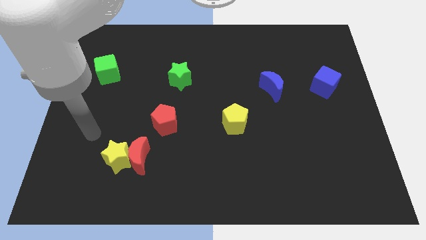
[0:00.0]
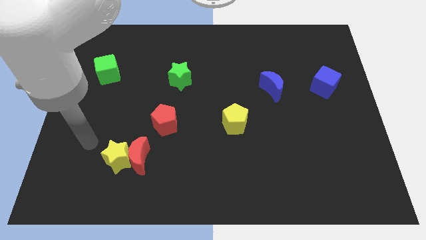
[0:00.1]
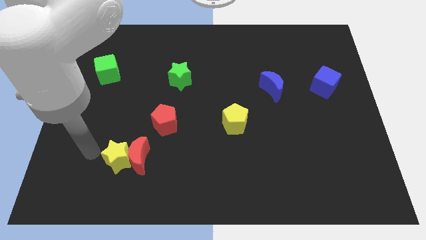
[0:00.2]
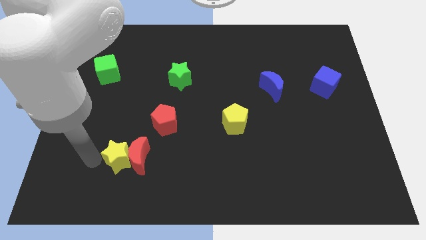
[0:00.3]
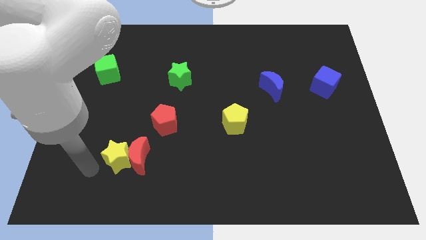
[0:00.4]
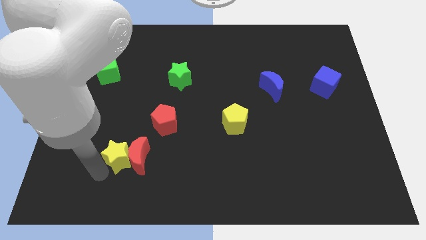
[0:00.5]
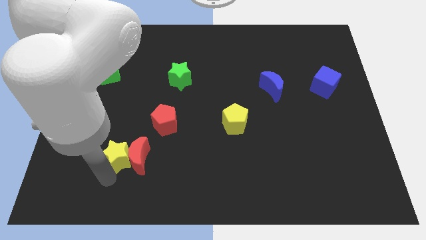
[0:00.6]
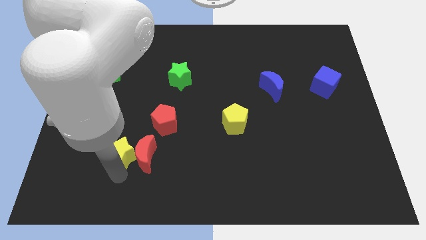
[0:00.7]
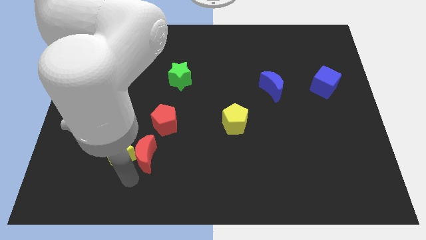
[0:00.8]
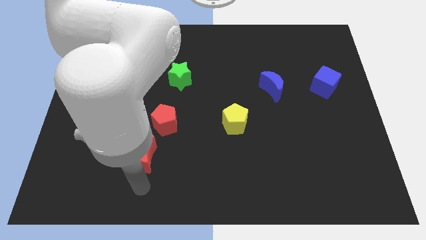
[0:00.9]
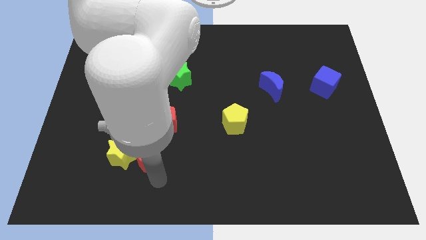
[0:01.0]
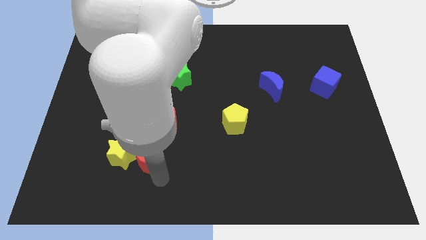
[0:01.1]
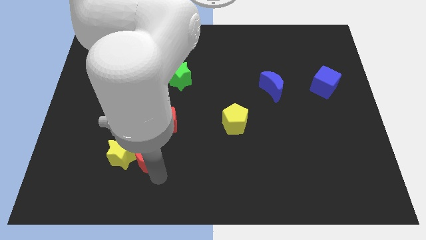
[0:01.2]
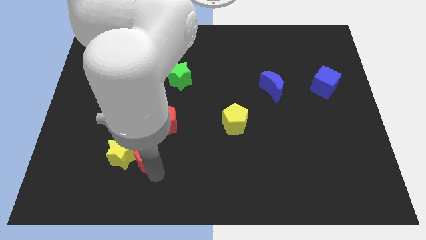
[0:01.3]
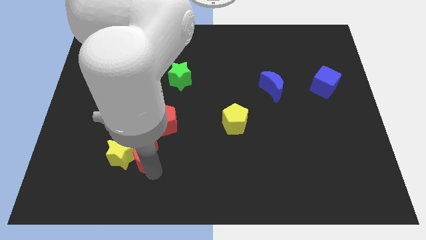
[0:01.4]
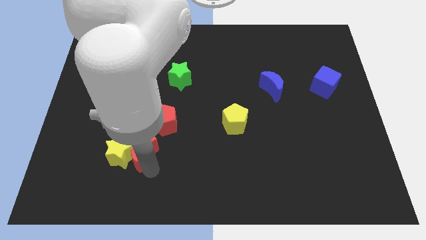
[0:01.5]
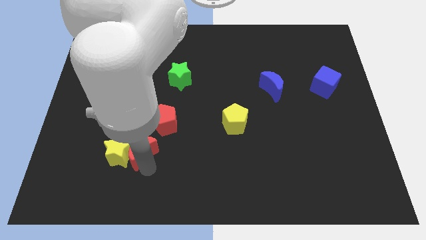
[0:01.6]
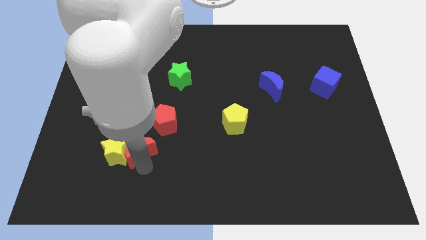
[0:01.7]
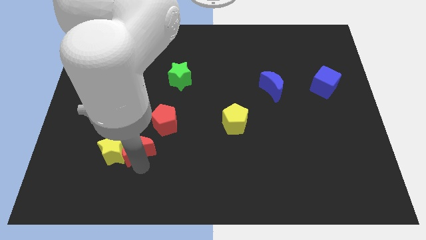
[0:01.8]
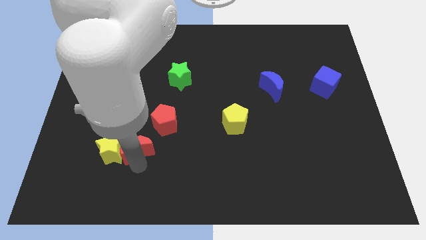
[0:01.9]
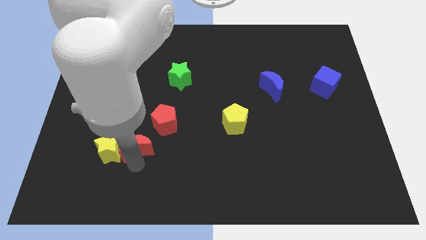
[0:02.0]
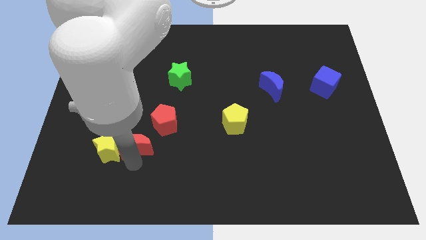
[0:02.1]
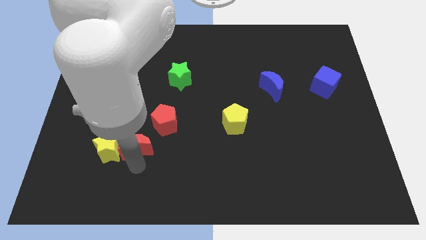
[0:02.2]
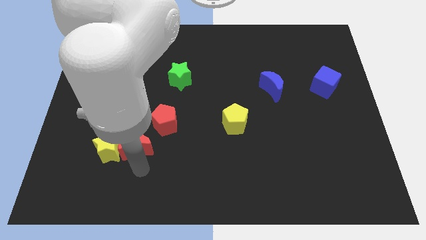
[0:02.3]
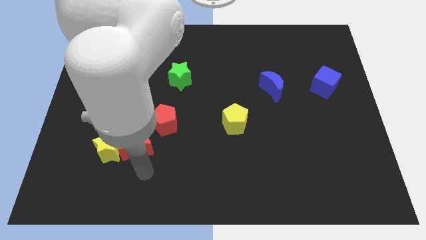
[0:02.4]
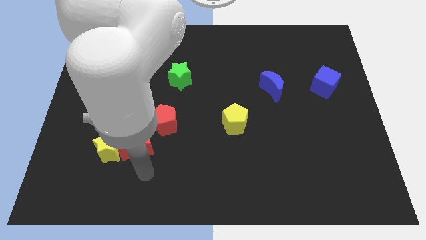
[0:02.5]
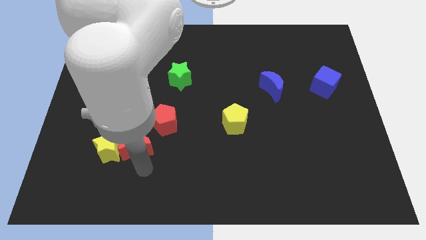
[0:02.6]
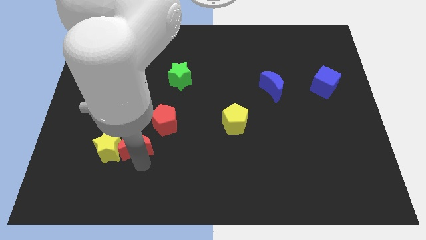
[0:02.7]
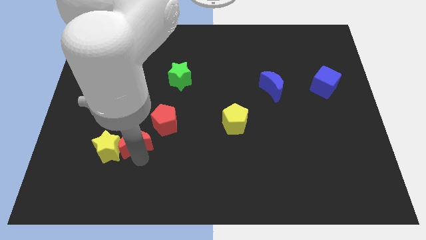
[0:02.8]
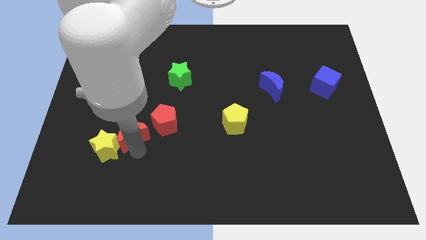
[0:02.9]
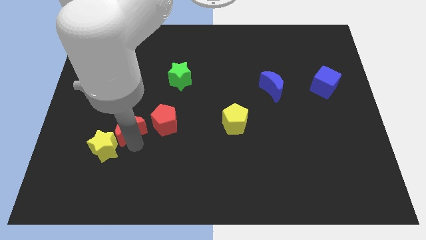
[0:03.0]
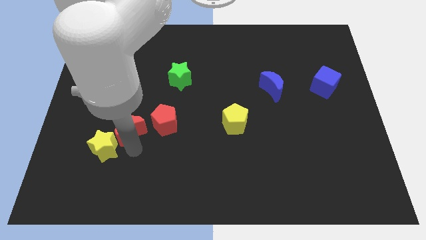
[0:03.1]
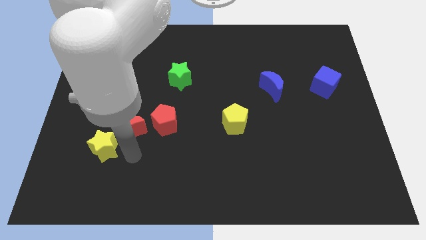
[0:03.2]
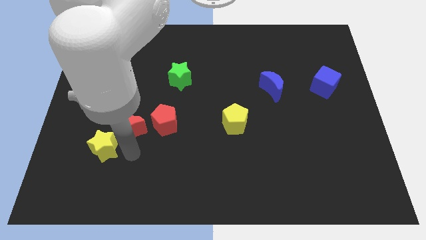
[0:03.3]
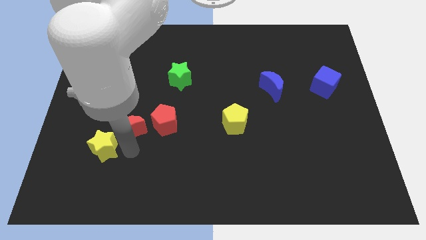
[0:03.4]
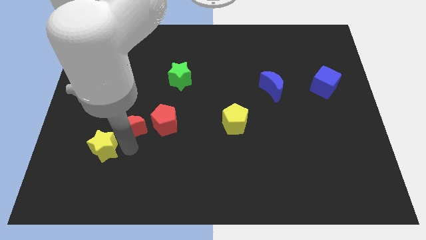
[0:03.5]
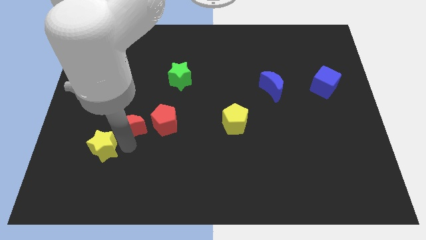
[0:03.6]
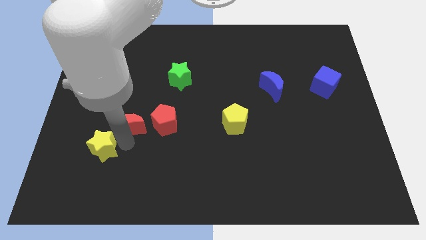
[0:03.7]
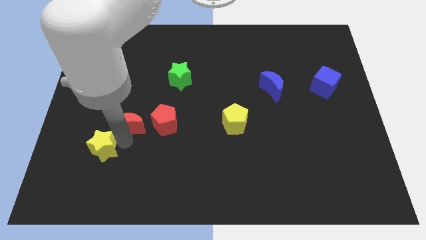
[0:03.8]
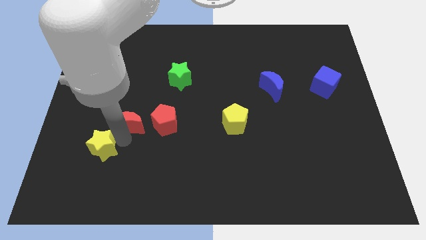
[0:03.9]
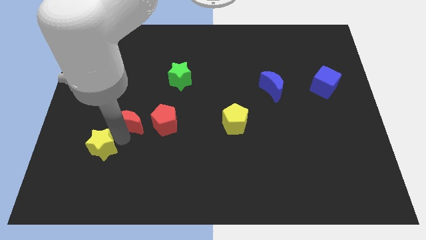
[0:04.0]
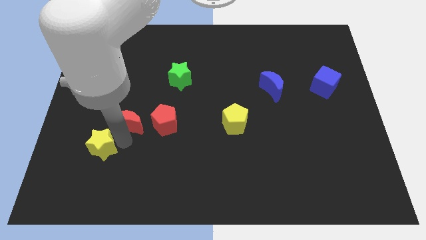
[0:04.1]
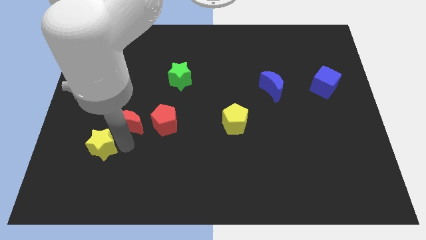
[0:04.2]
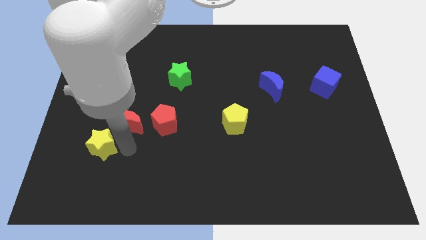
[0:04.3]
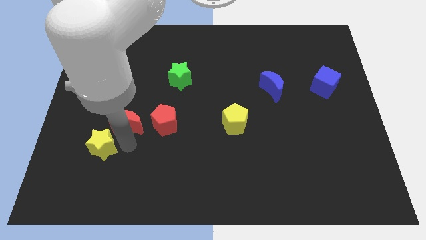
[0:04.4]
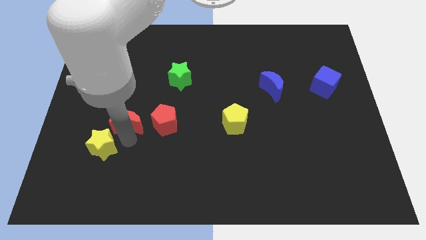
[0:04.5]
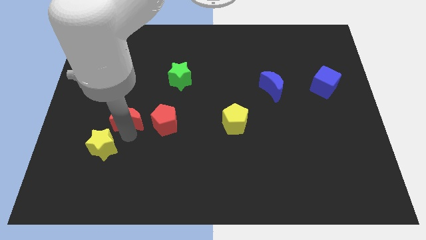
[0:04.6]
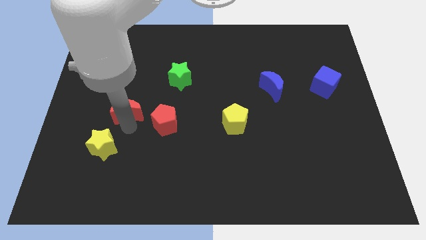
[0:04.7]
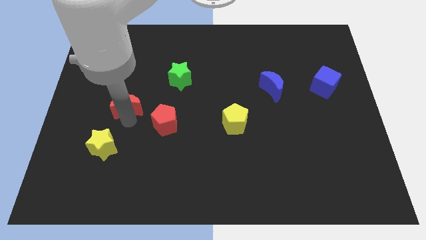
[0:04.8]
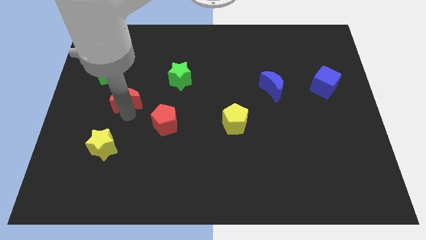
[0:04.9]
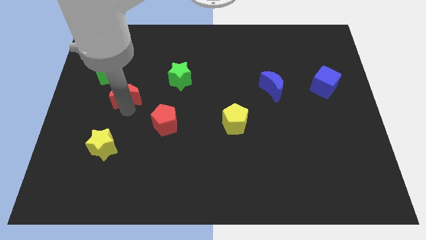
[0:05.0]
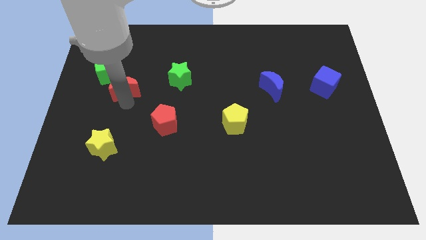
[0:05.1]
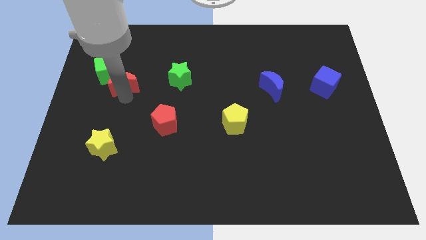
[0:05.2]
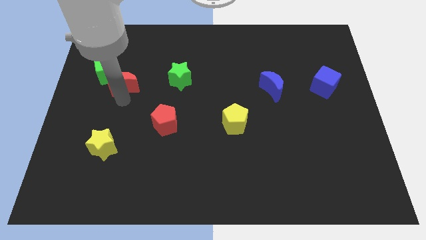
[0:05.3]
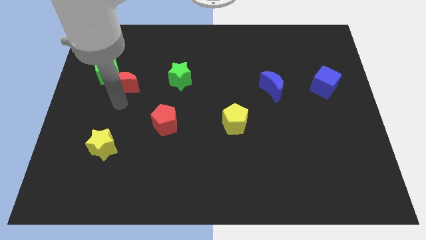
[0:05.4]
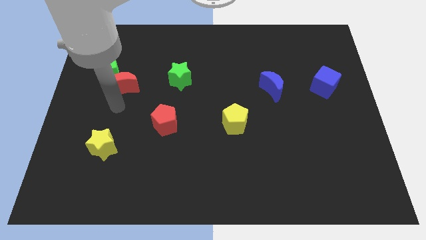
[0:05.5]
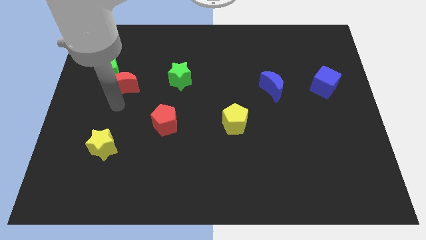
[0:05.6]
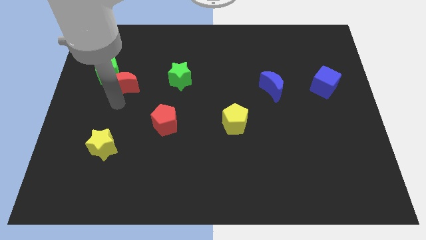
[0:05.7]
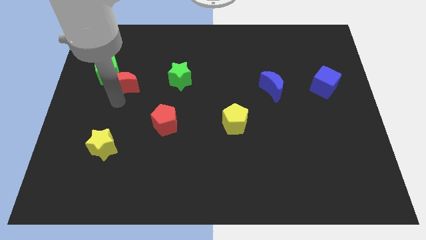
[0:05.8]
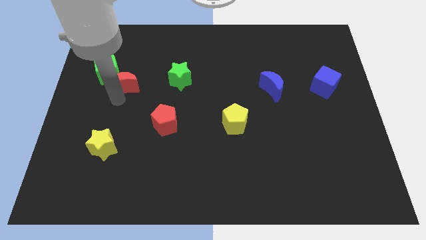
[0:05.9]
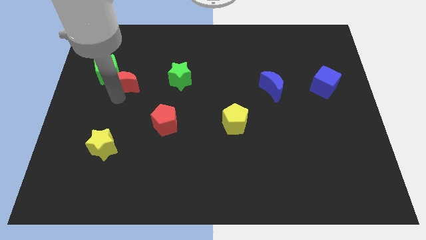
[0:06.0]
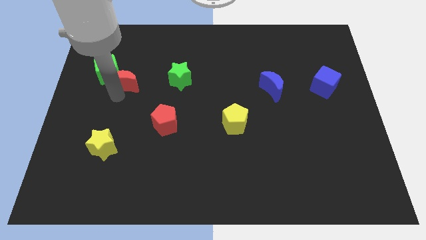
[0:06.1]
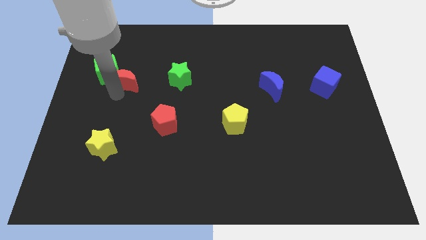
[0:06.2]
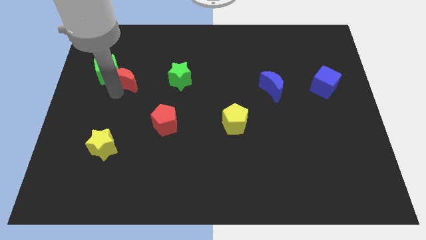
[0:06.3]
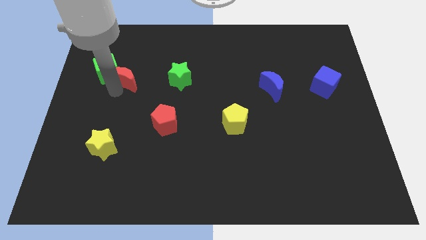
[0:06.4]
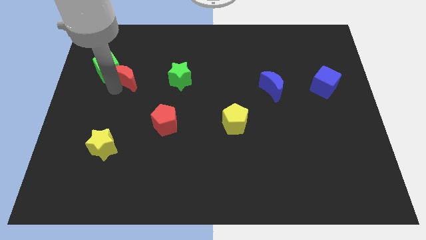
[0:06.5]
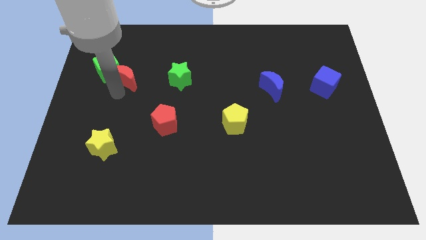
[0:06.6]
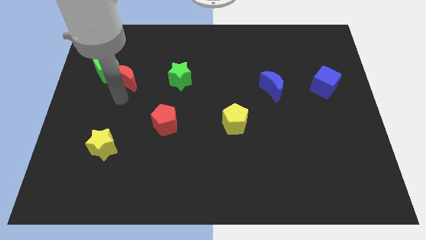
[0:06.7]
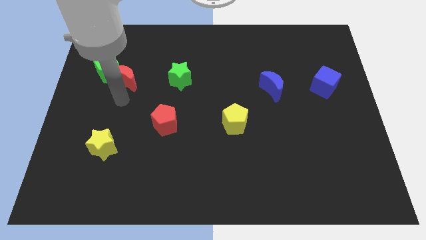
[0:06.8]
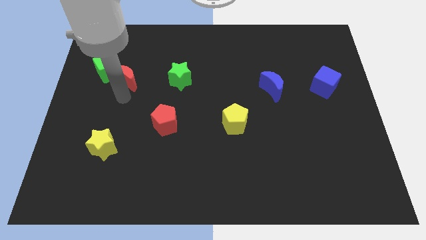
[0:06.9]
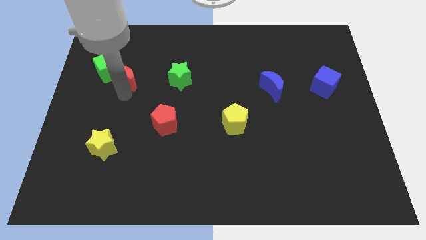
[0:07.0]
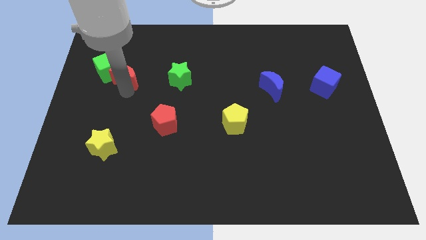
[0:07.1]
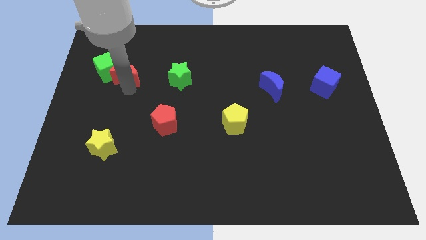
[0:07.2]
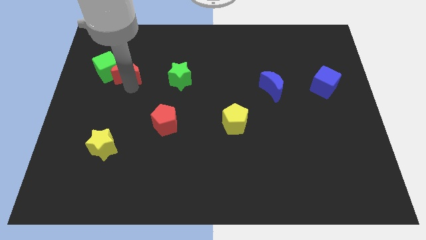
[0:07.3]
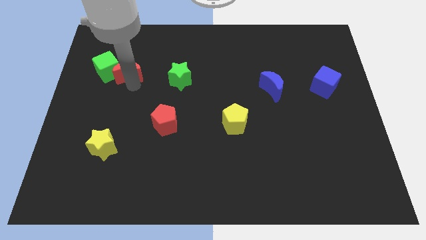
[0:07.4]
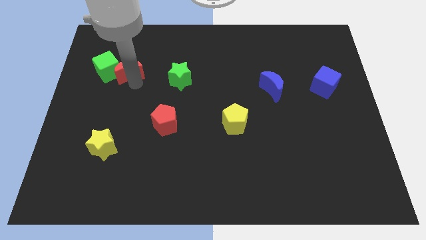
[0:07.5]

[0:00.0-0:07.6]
put the red moon diagonally up and to the right of the green cube
